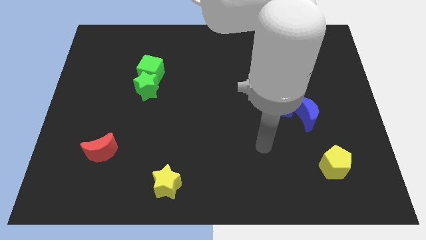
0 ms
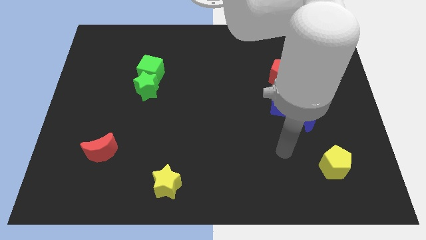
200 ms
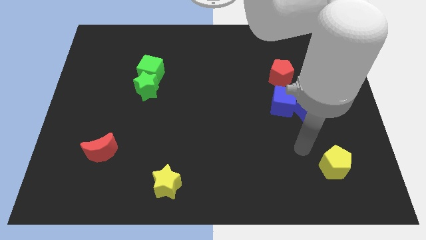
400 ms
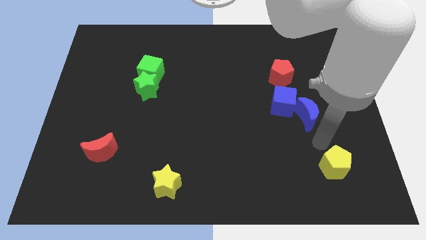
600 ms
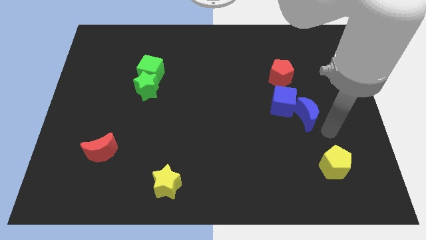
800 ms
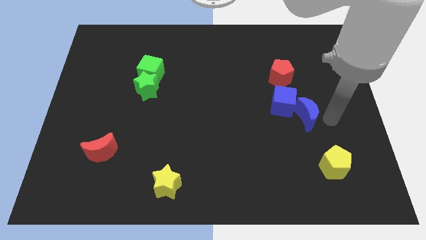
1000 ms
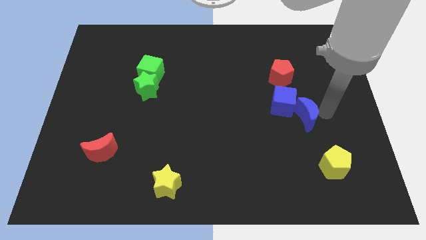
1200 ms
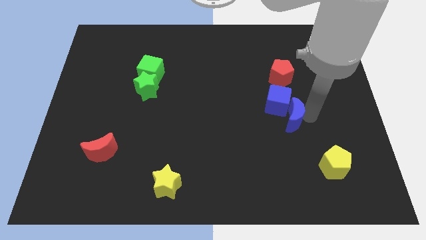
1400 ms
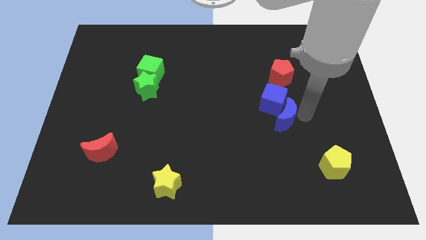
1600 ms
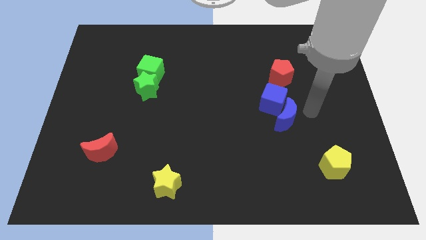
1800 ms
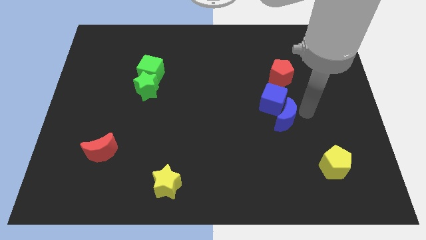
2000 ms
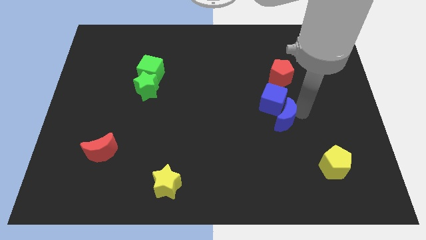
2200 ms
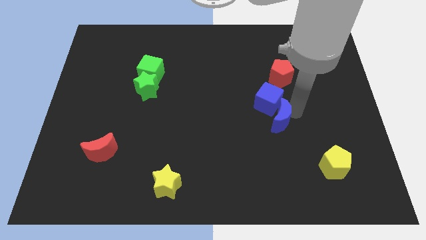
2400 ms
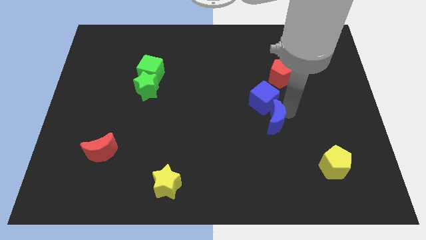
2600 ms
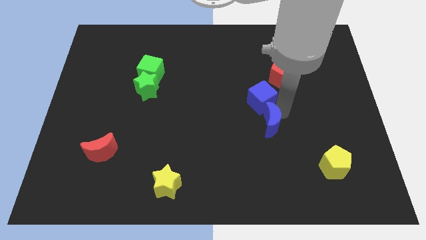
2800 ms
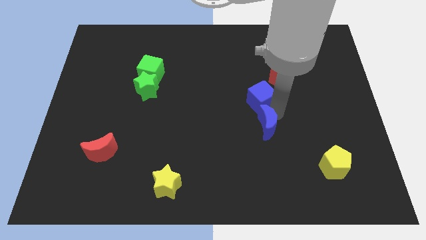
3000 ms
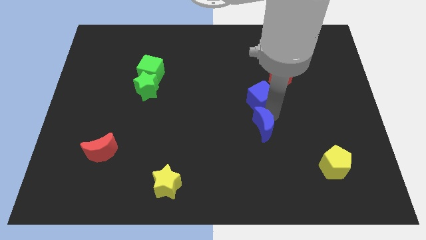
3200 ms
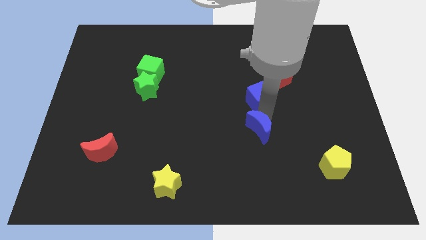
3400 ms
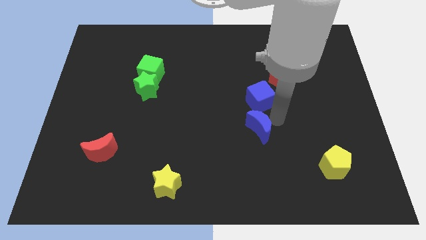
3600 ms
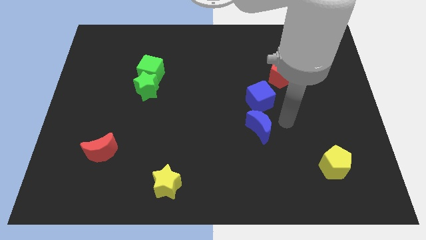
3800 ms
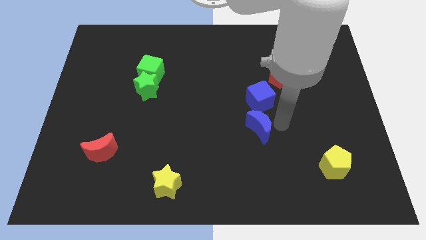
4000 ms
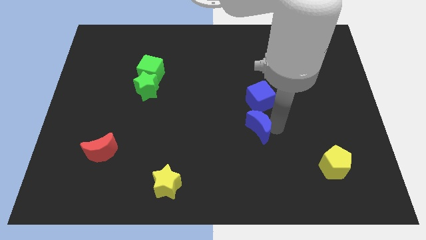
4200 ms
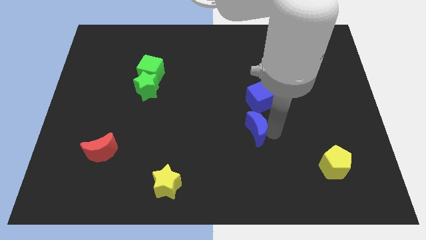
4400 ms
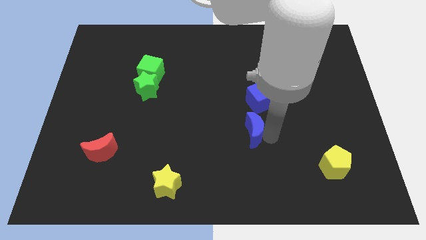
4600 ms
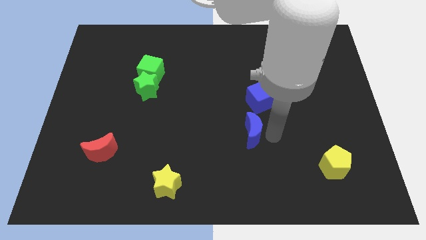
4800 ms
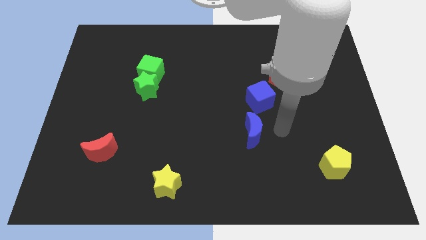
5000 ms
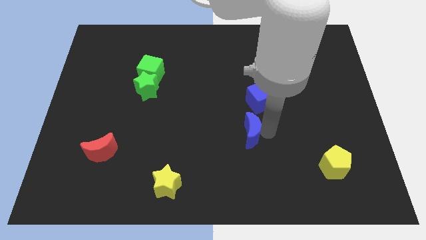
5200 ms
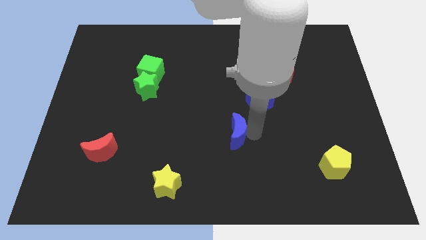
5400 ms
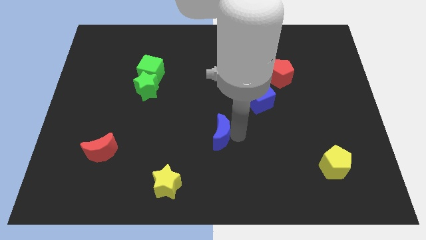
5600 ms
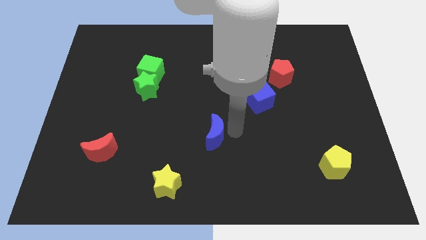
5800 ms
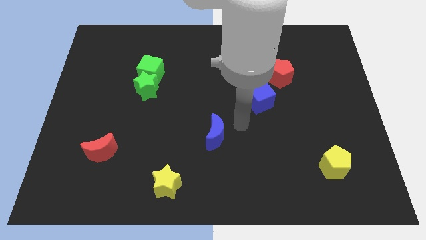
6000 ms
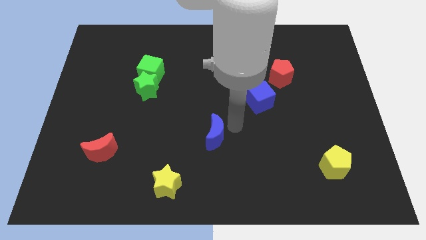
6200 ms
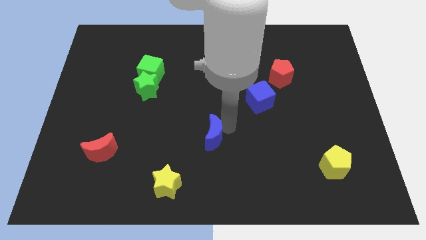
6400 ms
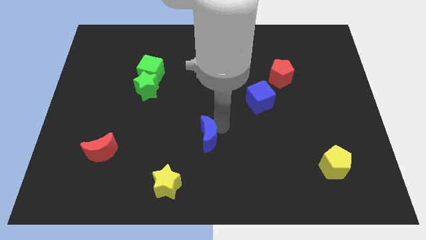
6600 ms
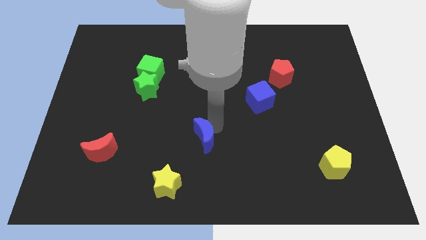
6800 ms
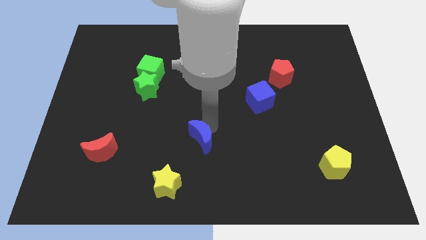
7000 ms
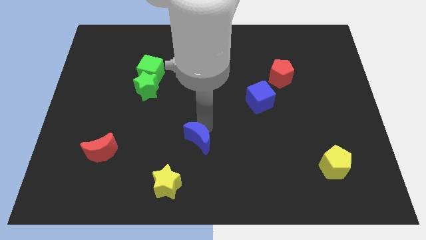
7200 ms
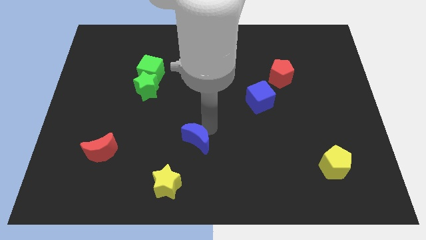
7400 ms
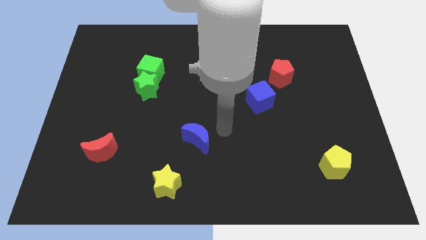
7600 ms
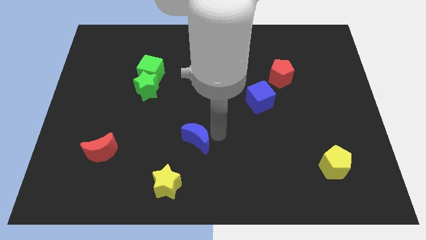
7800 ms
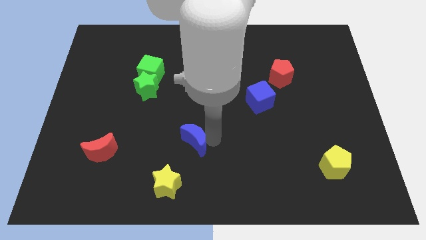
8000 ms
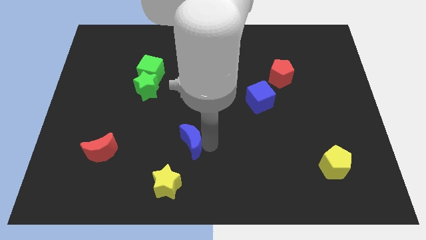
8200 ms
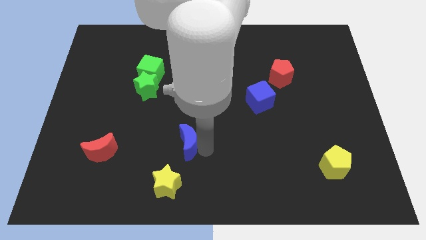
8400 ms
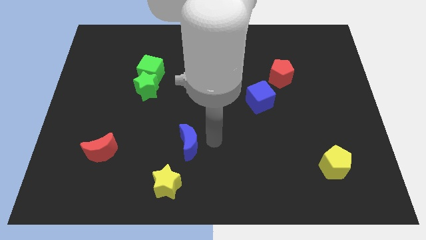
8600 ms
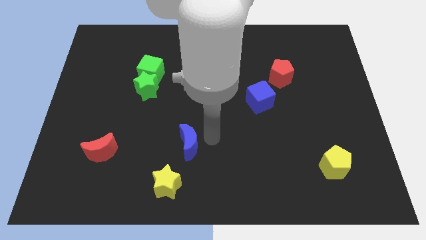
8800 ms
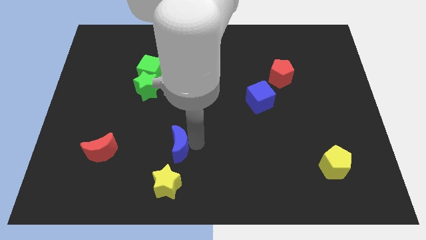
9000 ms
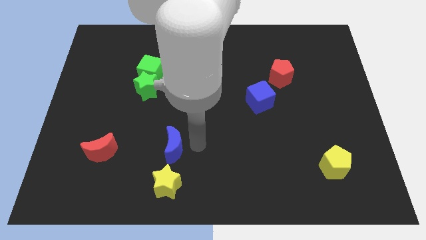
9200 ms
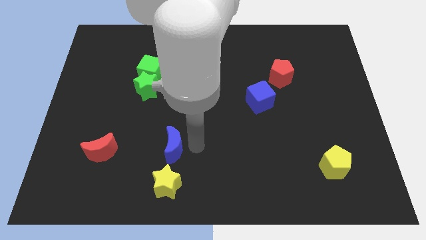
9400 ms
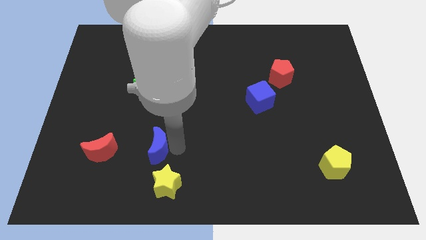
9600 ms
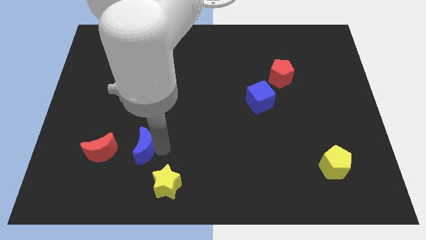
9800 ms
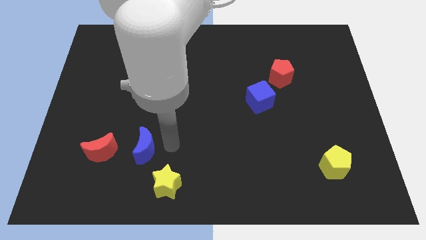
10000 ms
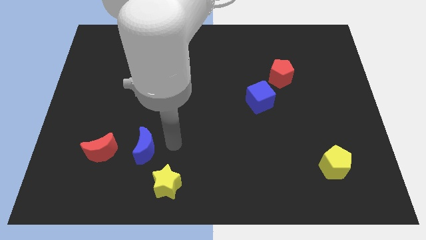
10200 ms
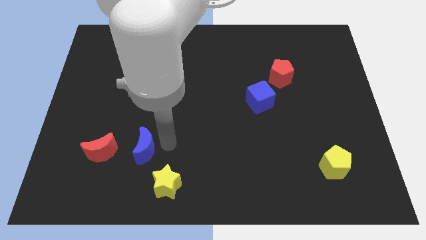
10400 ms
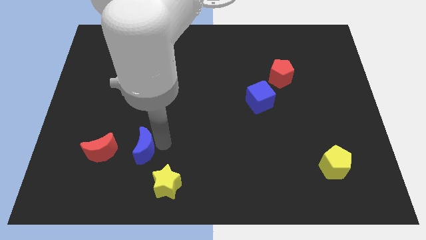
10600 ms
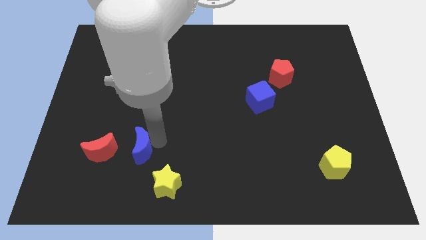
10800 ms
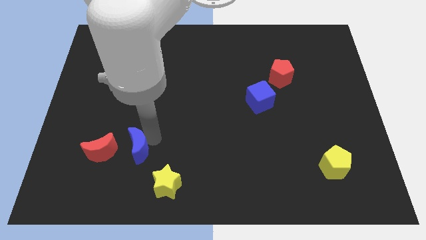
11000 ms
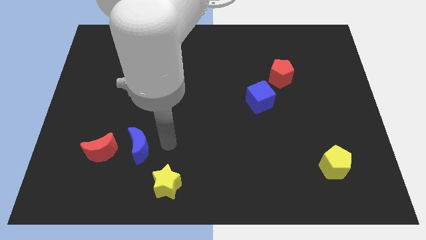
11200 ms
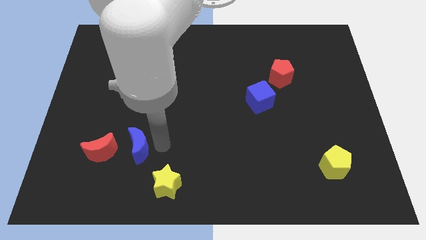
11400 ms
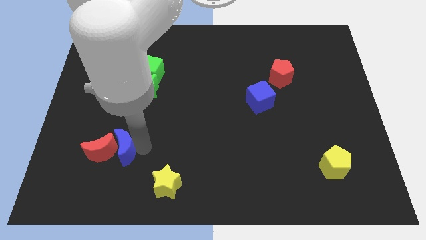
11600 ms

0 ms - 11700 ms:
slide the blue moon next to the red moon

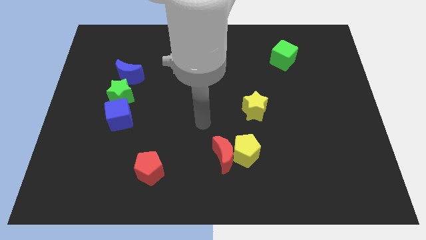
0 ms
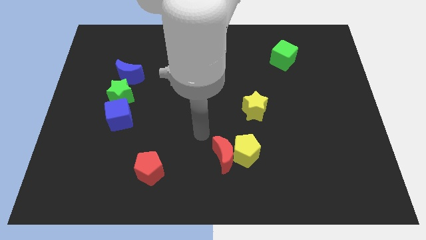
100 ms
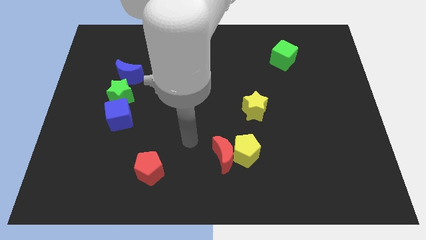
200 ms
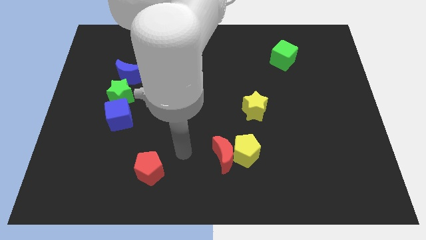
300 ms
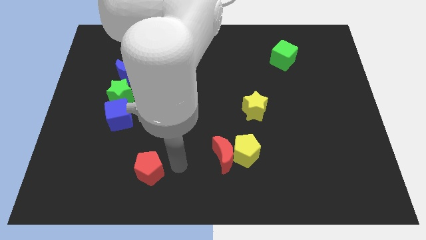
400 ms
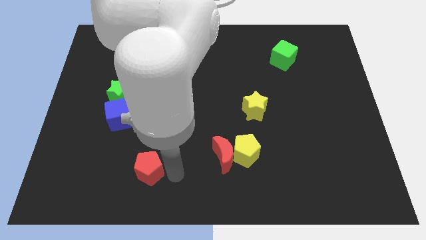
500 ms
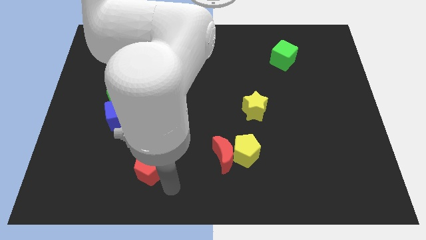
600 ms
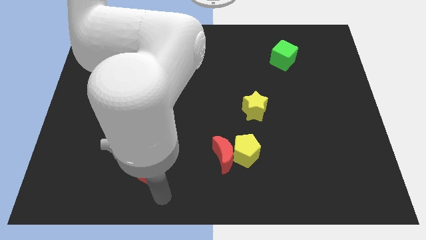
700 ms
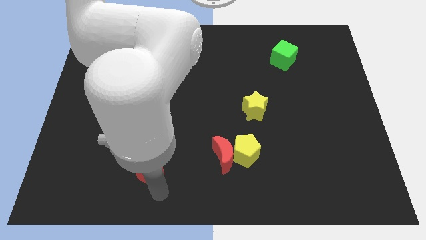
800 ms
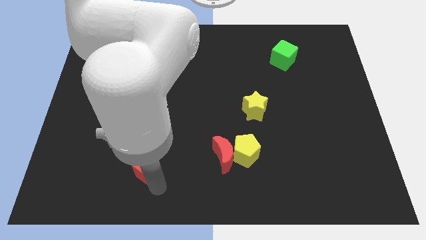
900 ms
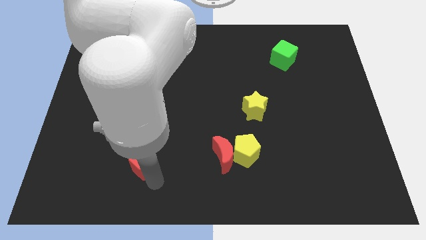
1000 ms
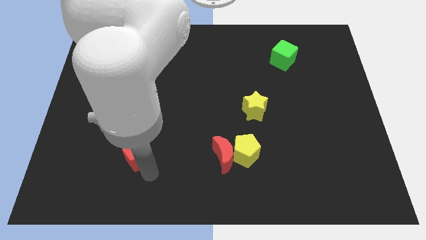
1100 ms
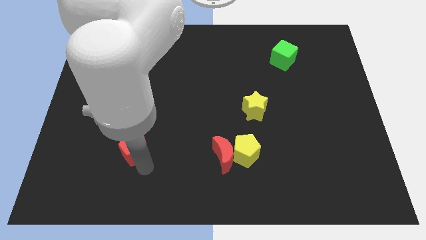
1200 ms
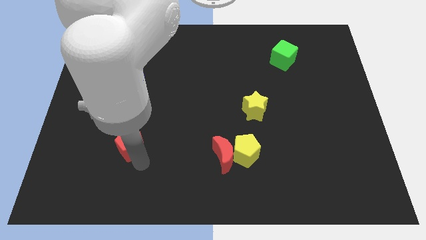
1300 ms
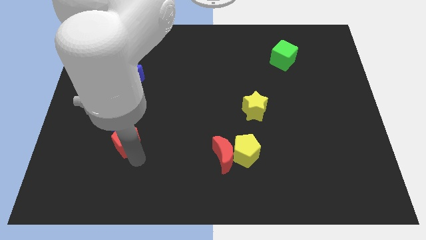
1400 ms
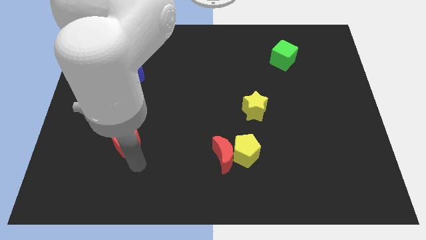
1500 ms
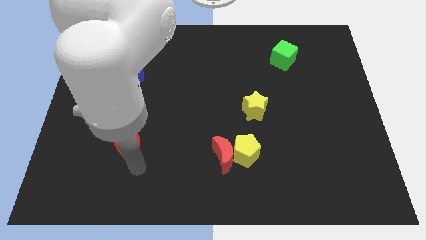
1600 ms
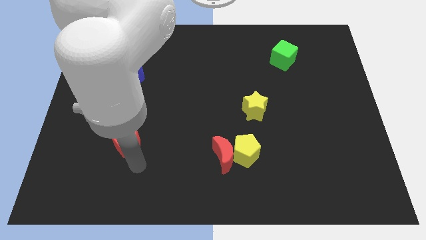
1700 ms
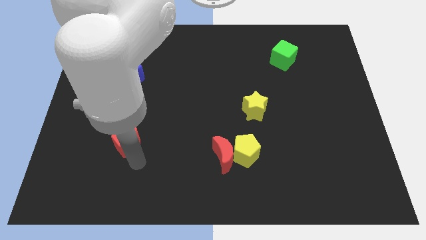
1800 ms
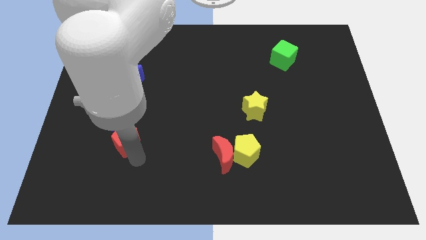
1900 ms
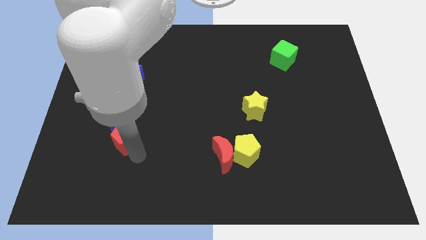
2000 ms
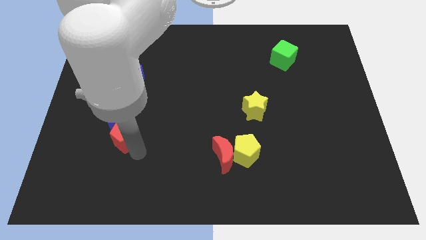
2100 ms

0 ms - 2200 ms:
put the red pentagon next to the blue cube
